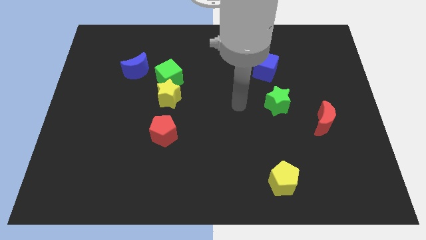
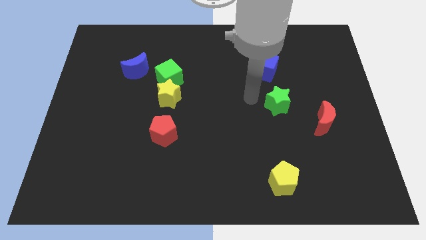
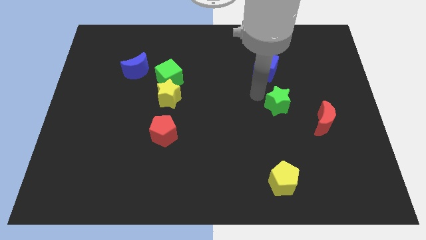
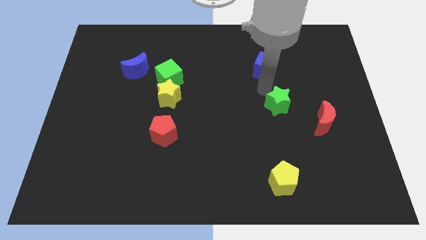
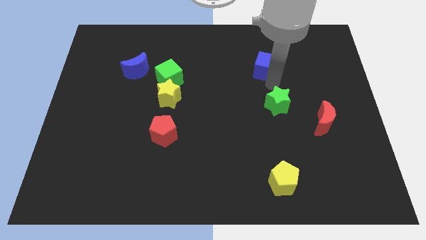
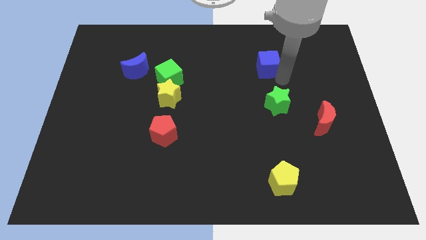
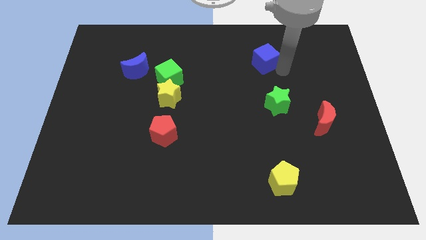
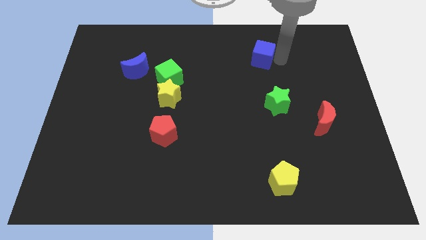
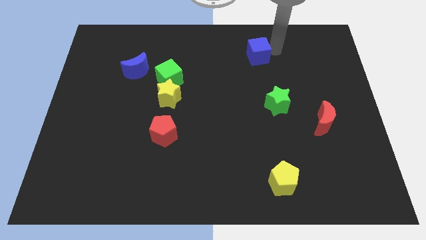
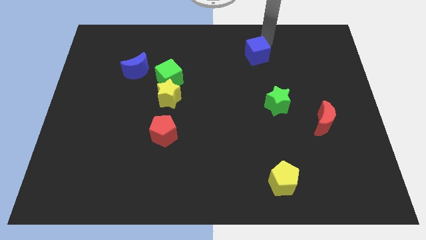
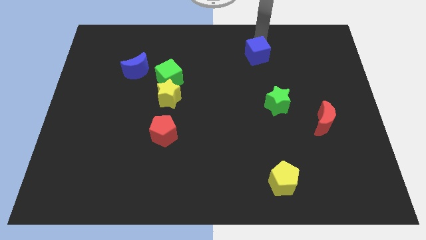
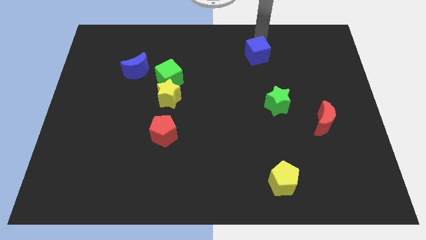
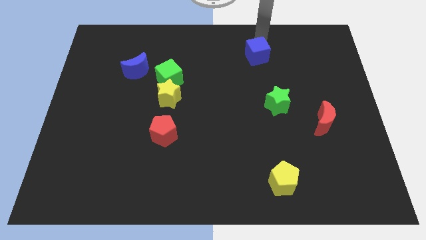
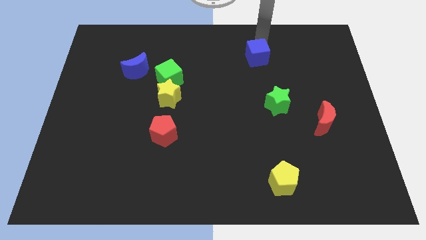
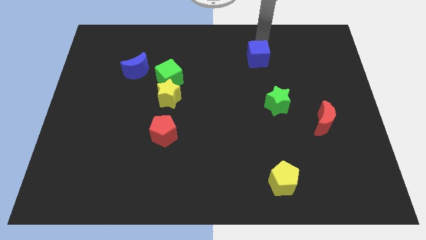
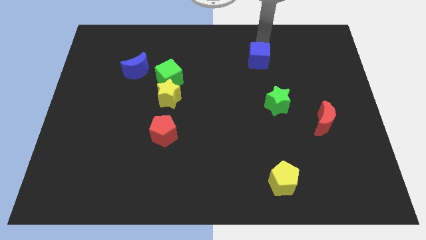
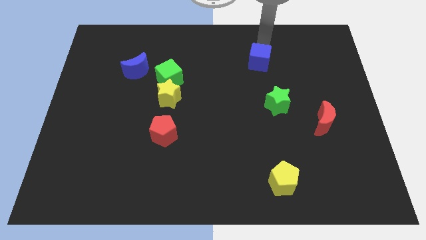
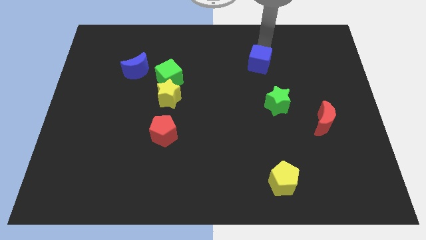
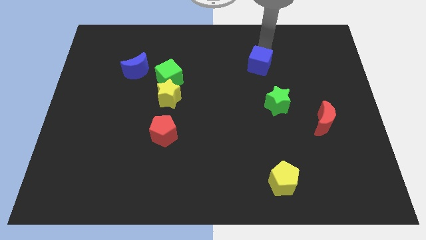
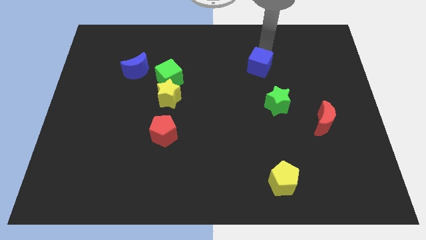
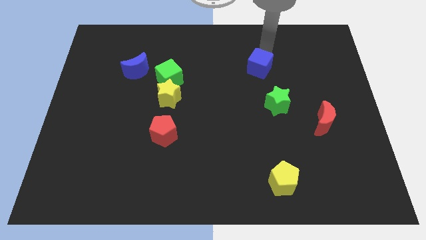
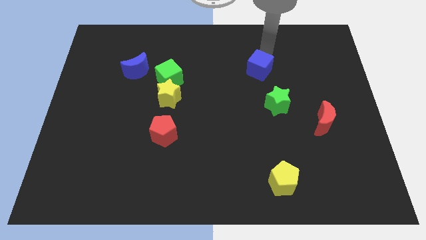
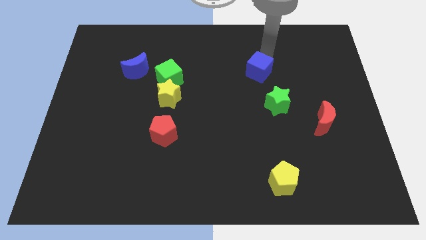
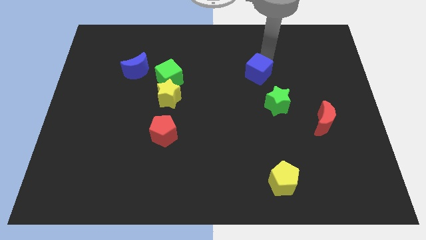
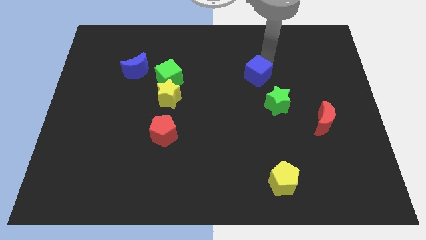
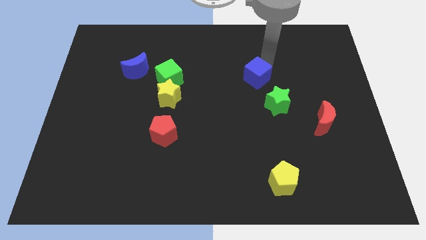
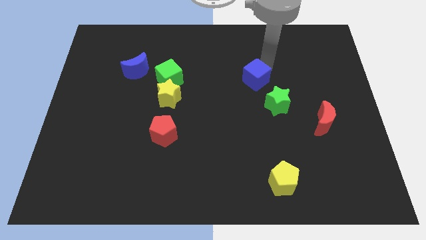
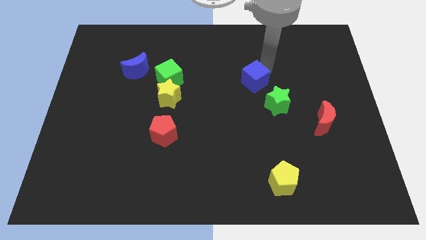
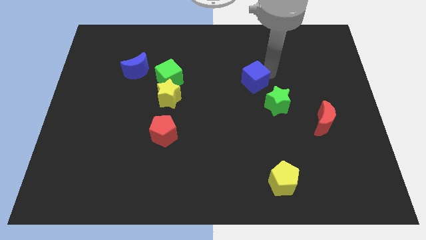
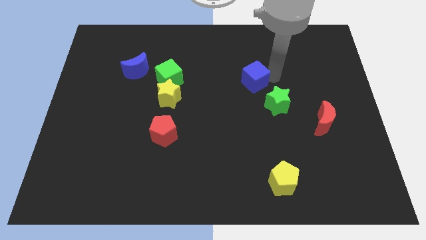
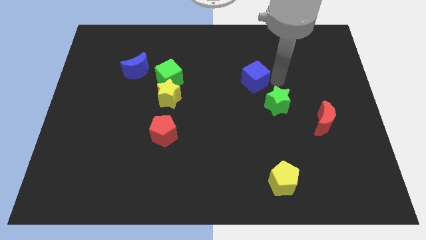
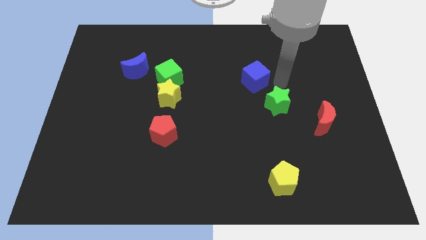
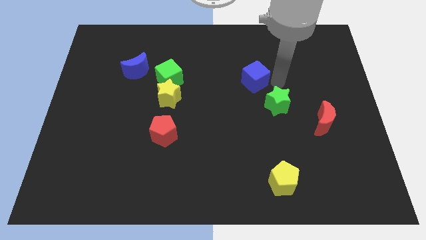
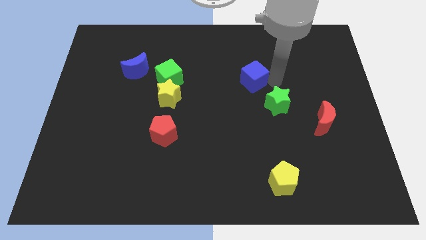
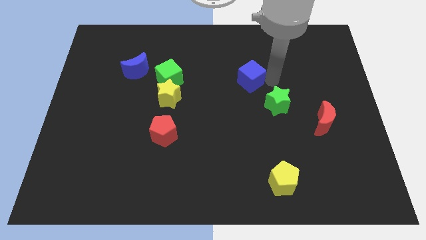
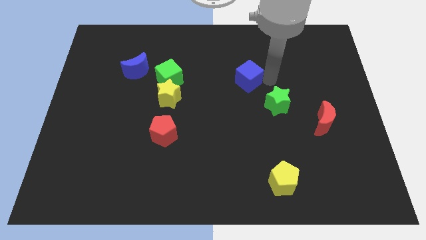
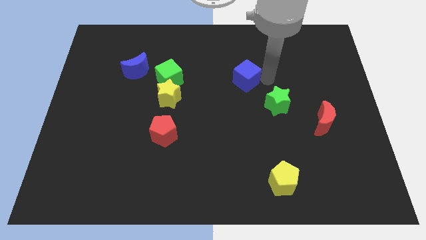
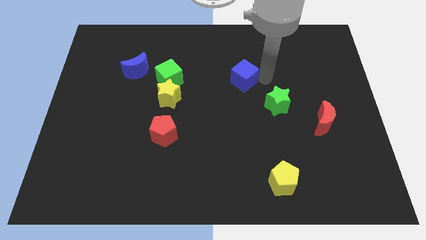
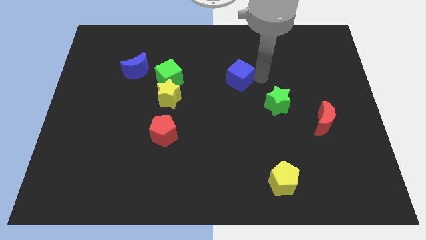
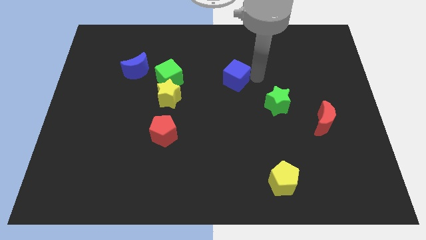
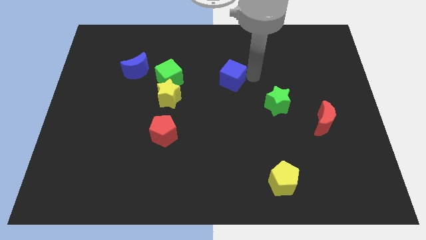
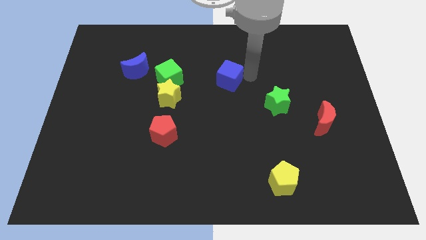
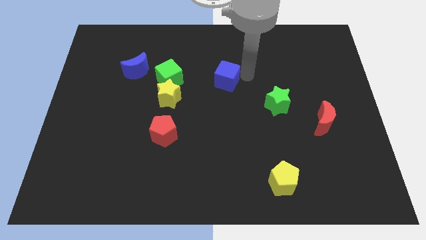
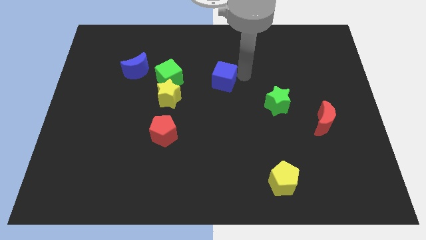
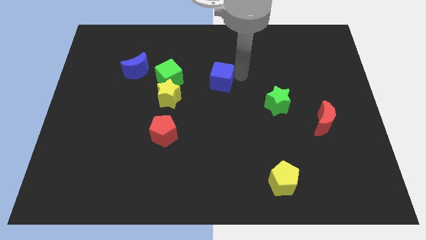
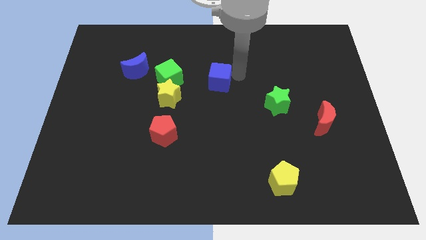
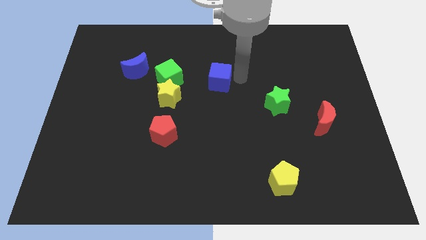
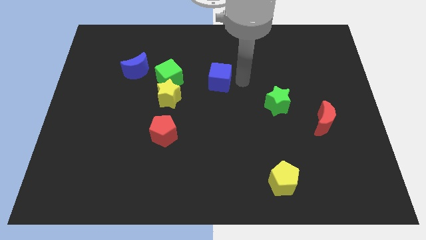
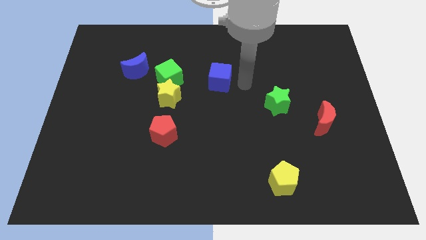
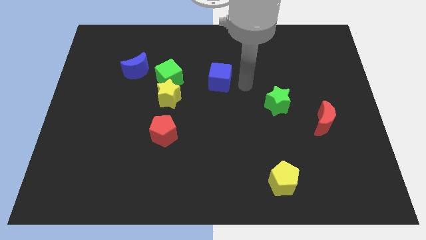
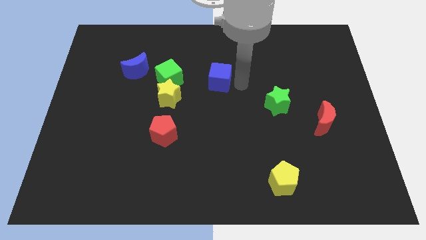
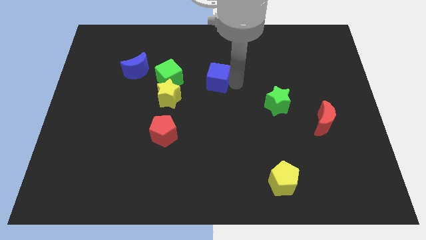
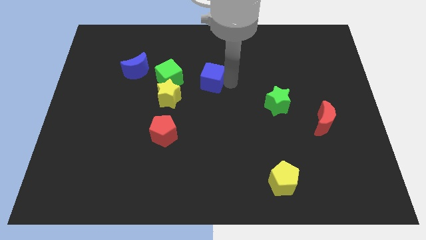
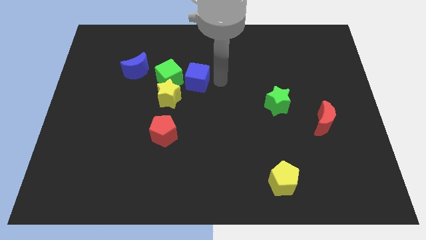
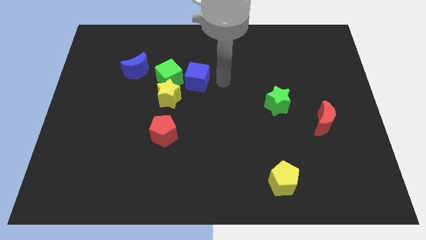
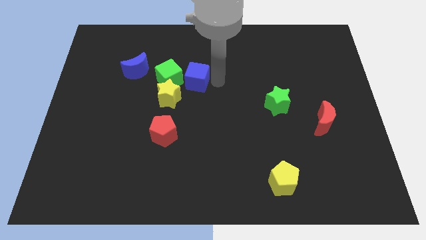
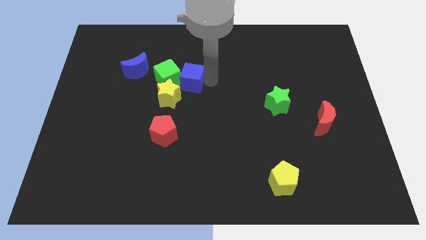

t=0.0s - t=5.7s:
push the blue cube to the green cube

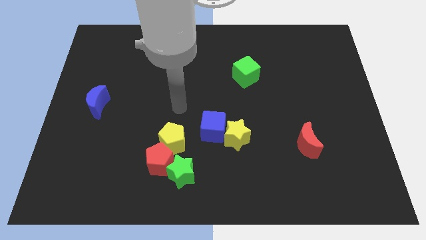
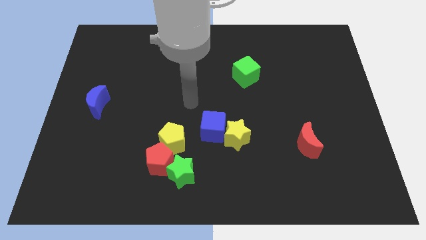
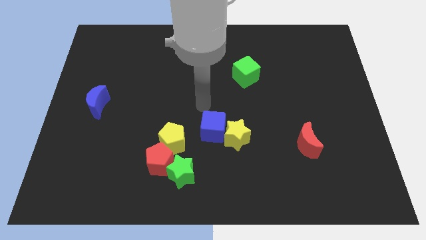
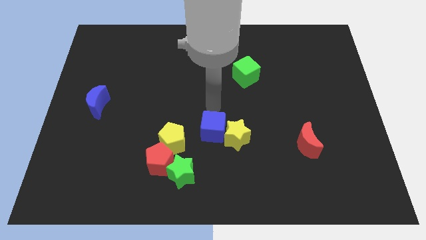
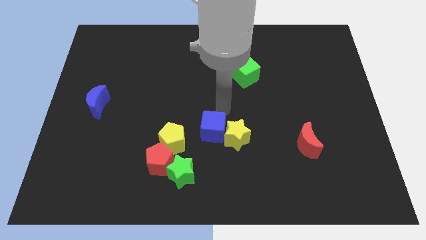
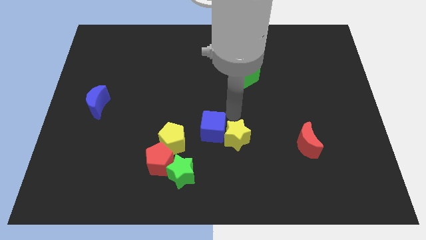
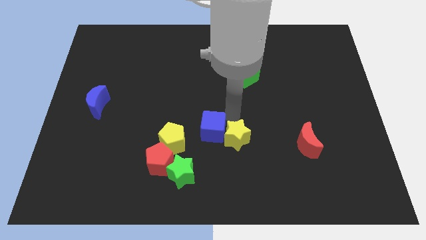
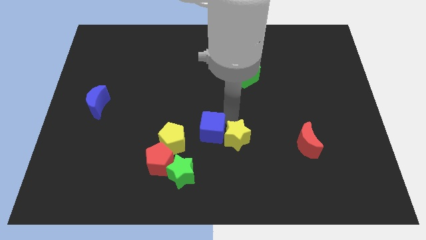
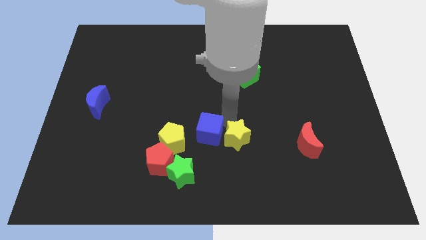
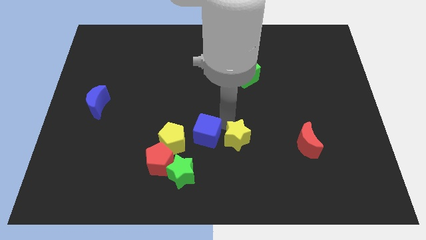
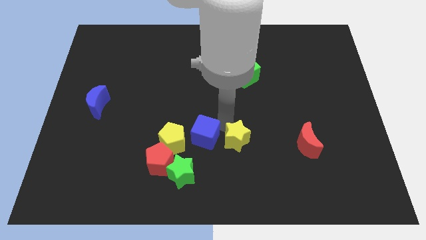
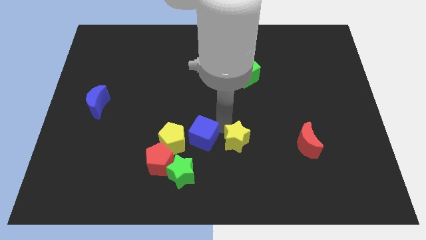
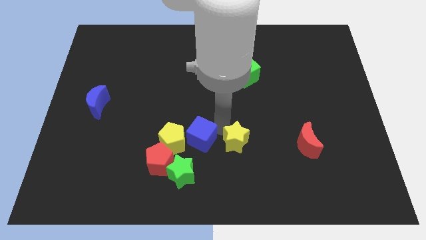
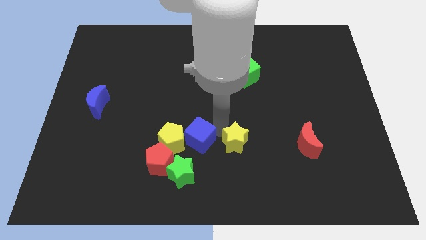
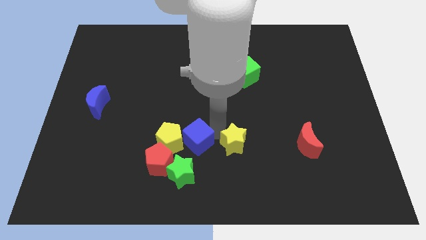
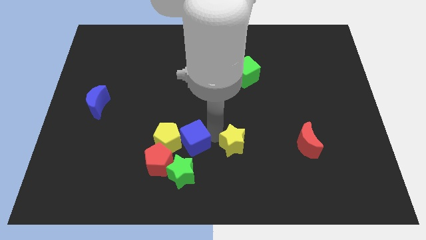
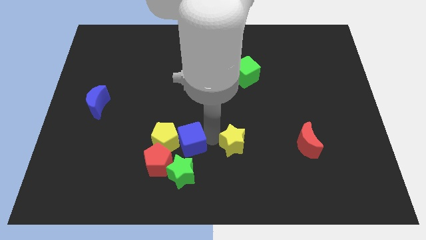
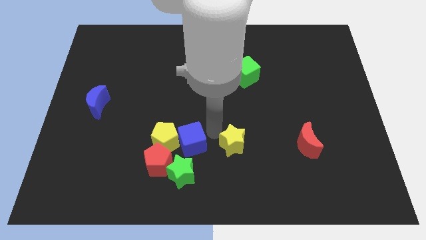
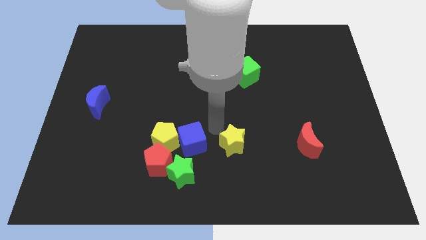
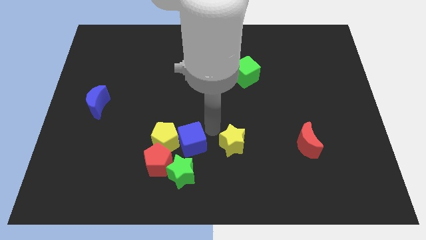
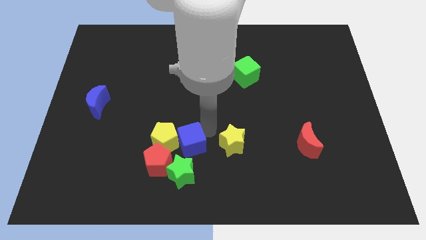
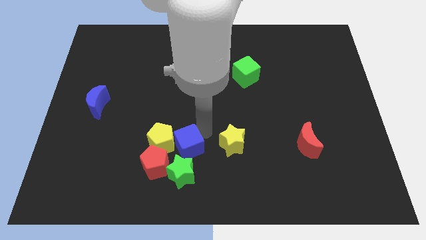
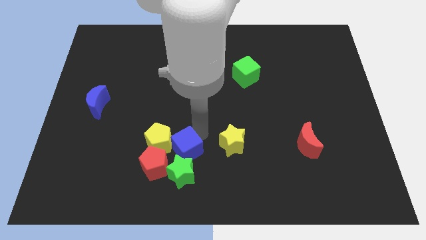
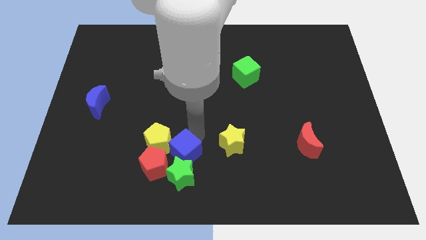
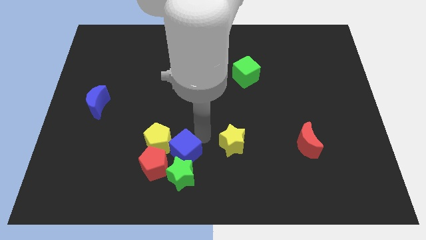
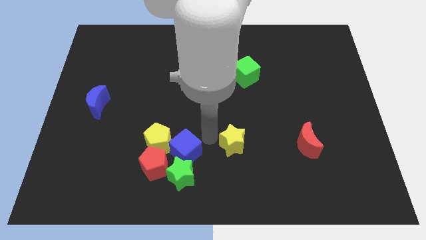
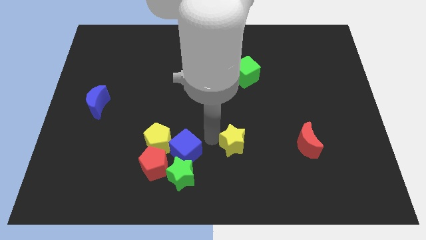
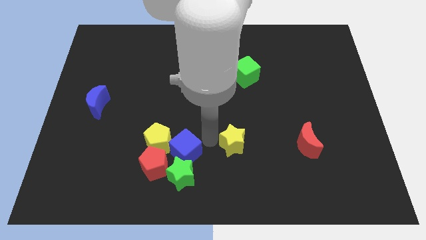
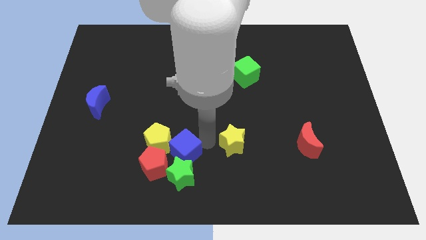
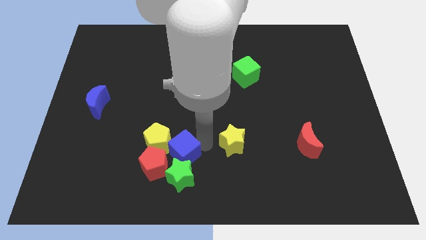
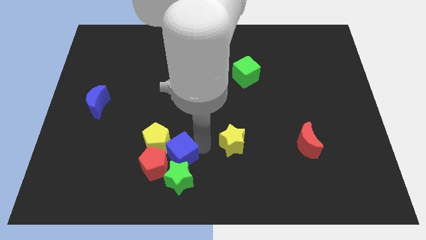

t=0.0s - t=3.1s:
put the blue cube next to the red pentagon
